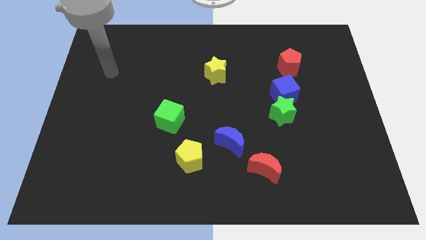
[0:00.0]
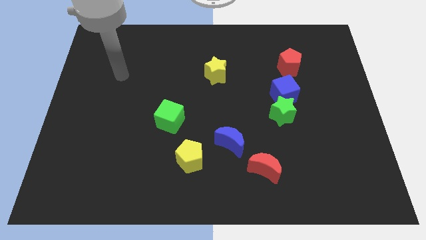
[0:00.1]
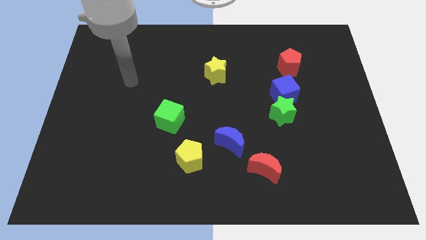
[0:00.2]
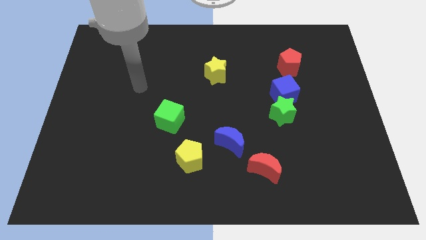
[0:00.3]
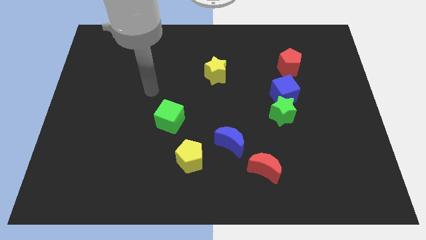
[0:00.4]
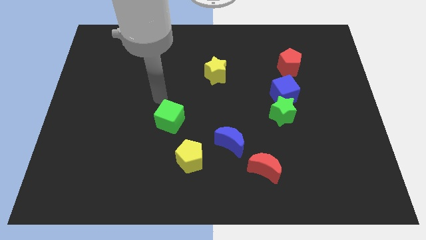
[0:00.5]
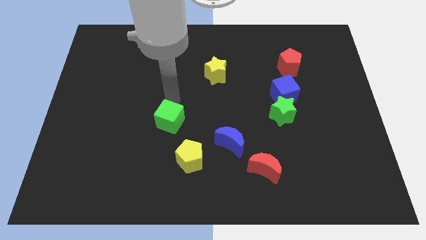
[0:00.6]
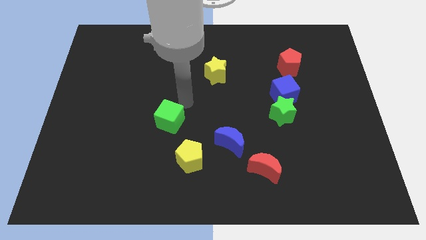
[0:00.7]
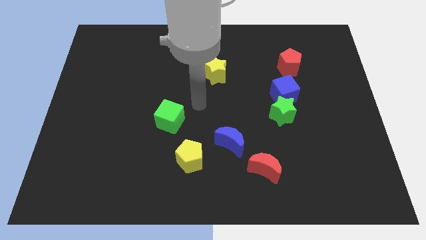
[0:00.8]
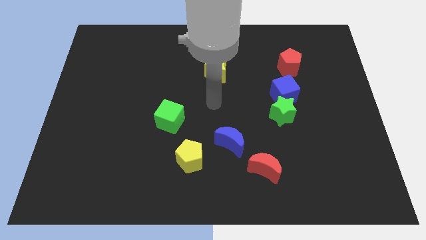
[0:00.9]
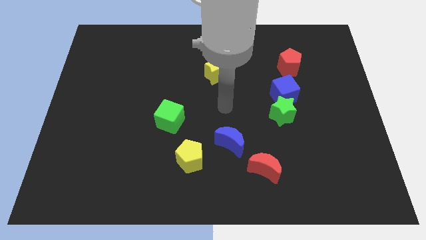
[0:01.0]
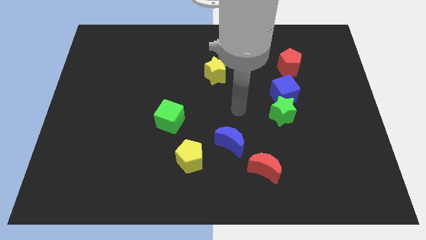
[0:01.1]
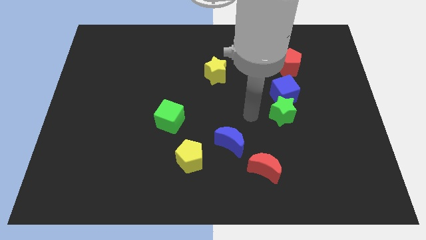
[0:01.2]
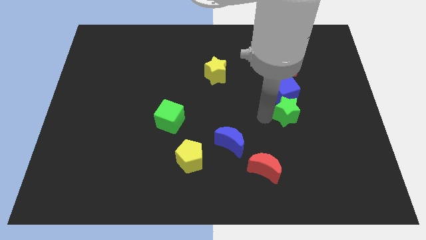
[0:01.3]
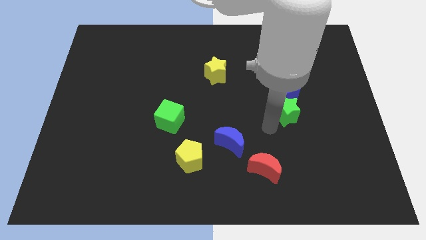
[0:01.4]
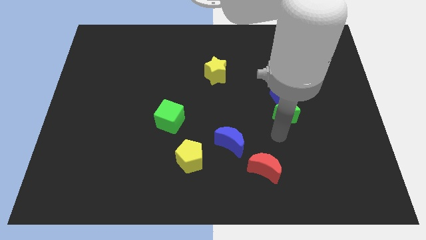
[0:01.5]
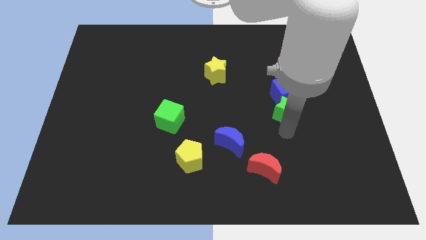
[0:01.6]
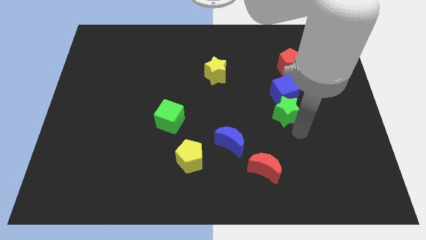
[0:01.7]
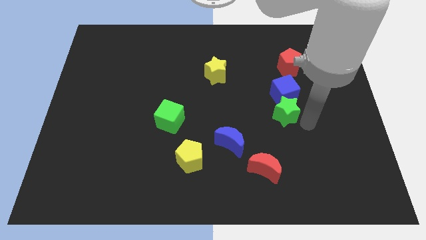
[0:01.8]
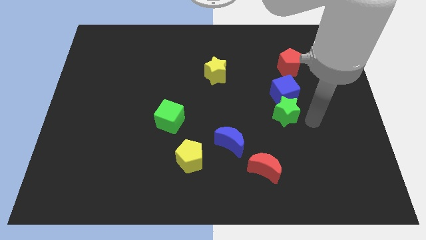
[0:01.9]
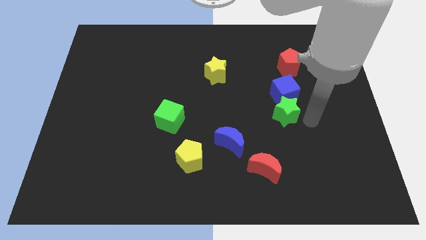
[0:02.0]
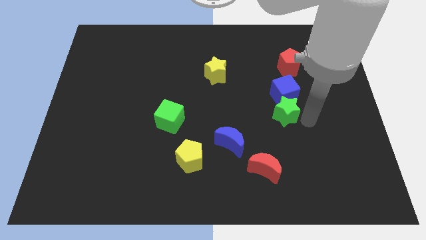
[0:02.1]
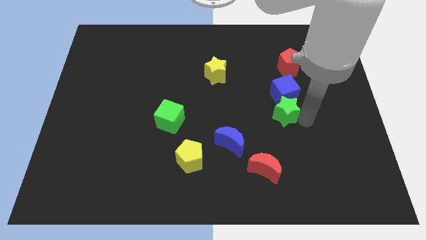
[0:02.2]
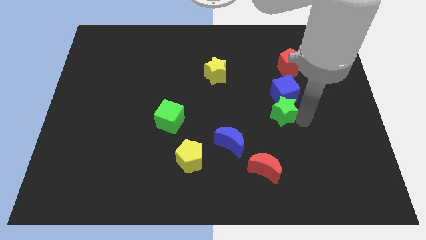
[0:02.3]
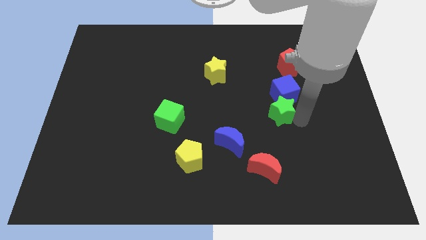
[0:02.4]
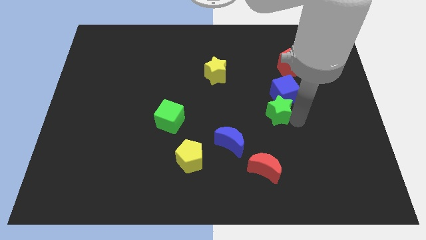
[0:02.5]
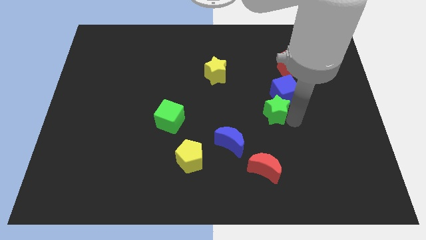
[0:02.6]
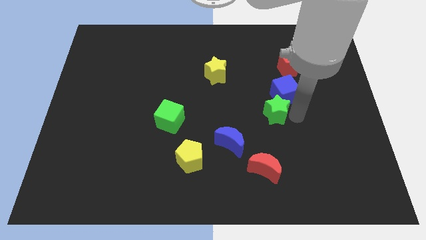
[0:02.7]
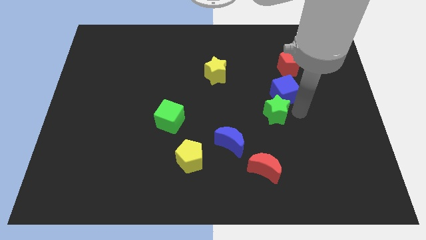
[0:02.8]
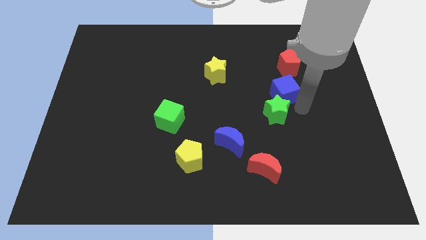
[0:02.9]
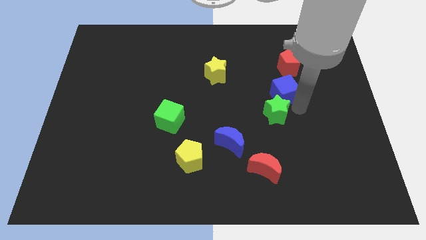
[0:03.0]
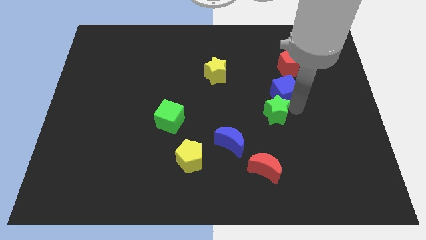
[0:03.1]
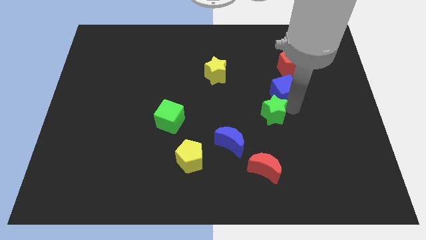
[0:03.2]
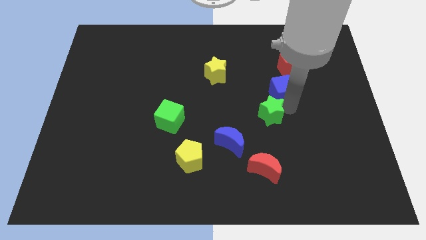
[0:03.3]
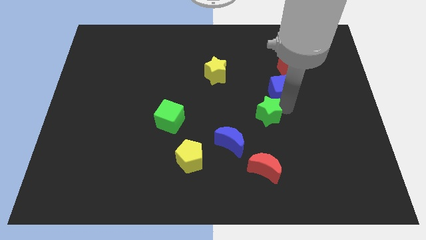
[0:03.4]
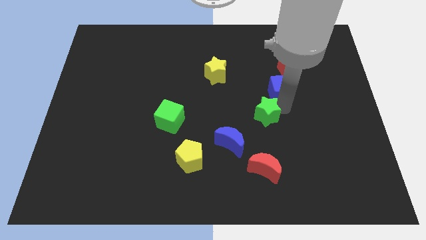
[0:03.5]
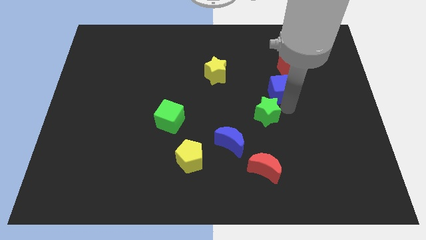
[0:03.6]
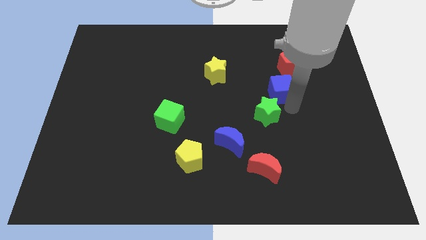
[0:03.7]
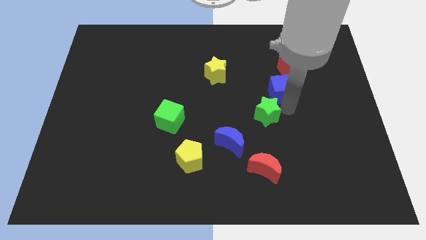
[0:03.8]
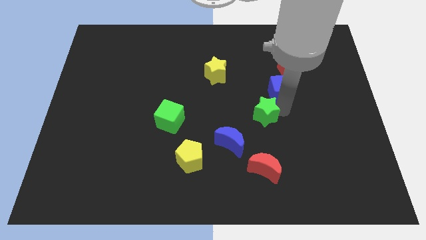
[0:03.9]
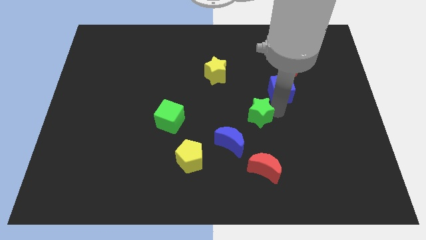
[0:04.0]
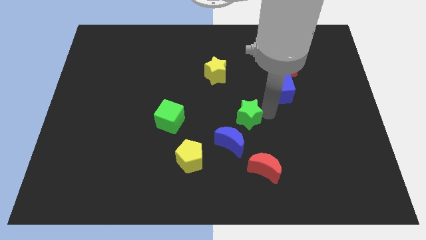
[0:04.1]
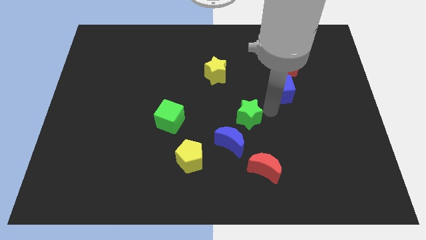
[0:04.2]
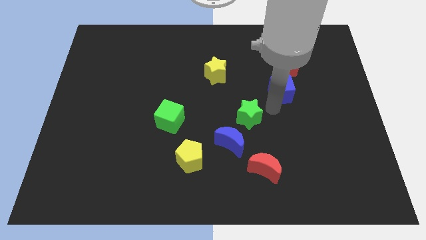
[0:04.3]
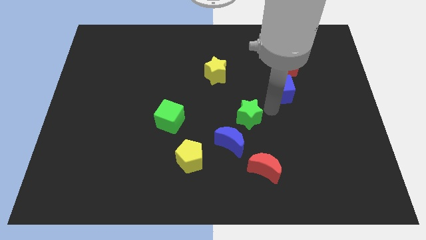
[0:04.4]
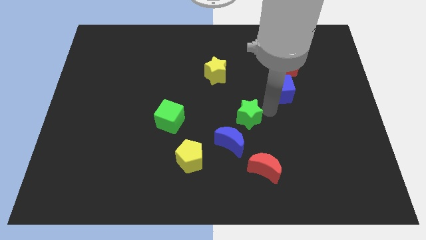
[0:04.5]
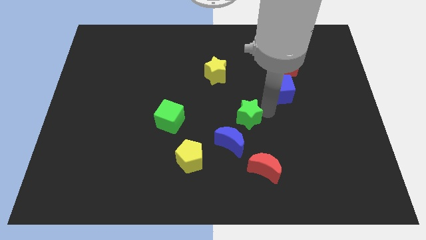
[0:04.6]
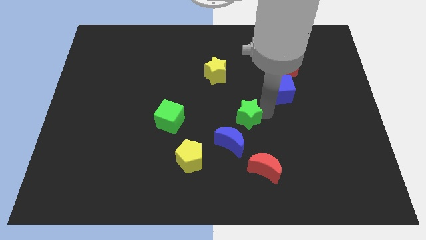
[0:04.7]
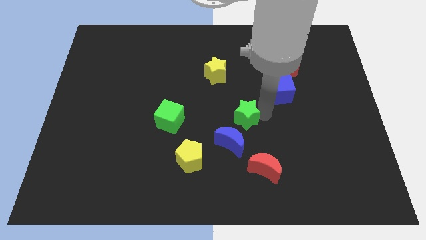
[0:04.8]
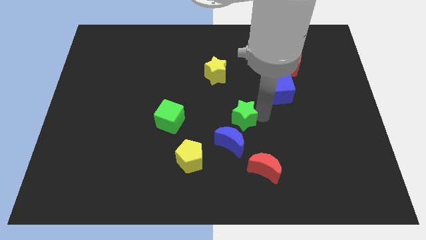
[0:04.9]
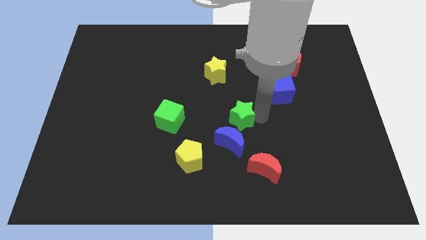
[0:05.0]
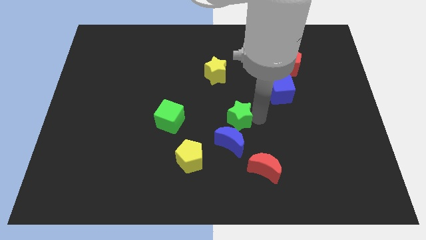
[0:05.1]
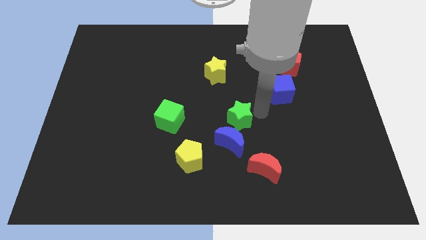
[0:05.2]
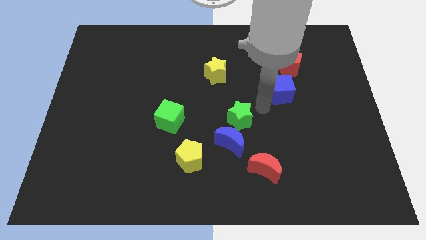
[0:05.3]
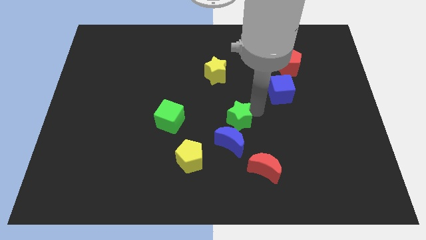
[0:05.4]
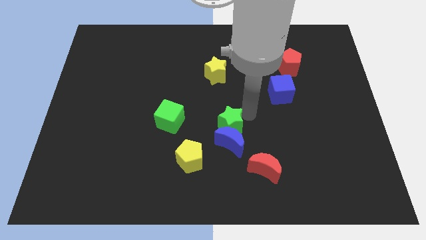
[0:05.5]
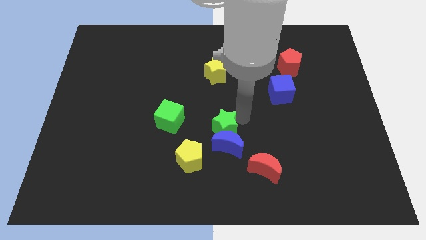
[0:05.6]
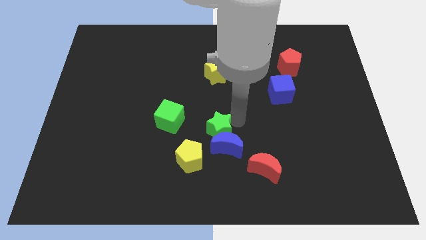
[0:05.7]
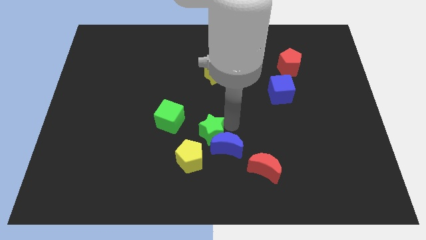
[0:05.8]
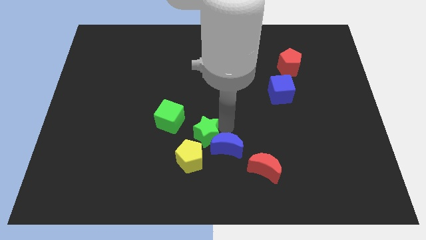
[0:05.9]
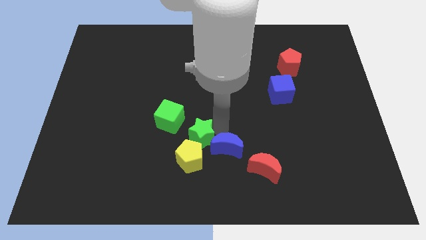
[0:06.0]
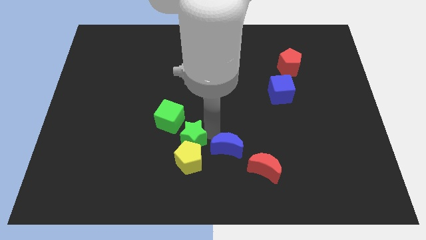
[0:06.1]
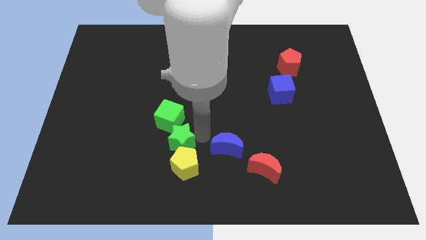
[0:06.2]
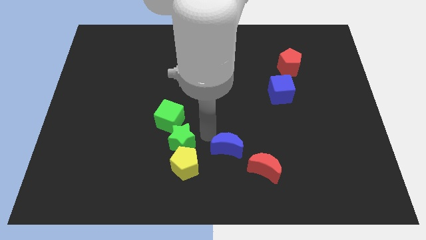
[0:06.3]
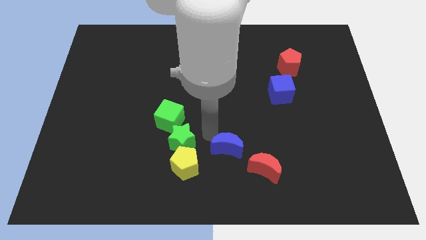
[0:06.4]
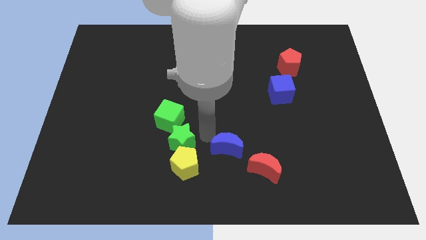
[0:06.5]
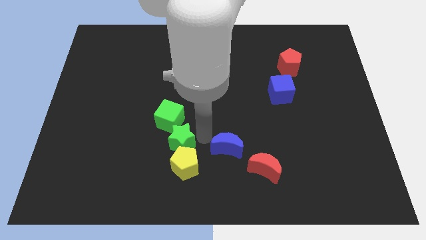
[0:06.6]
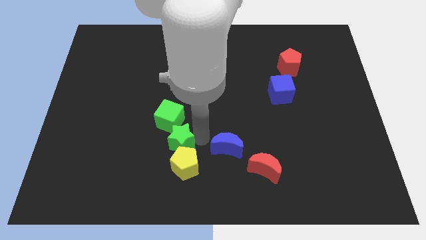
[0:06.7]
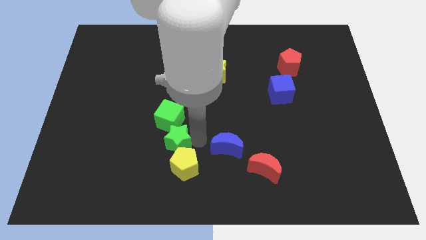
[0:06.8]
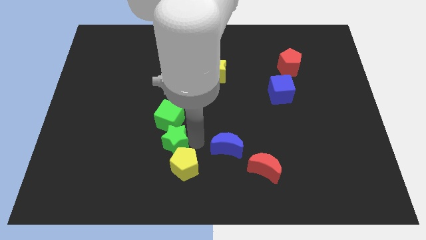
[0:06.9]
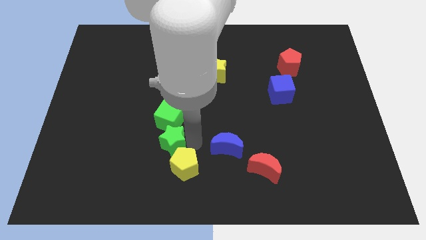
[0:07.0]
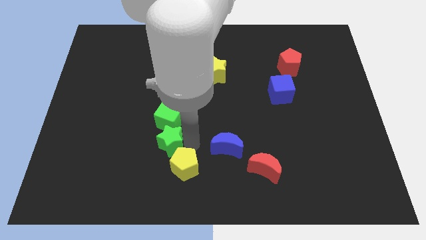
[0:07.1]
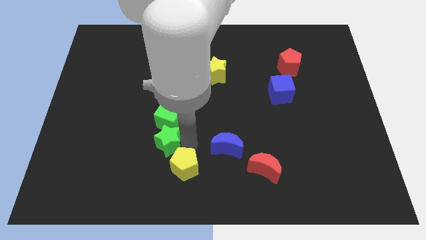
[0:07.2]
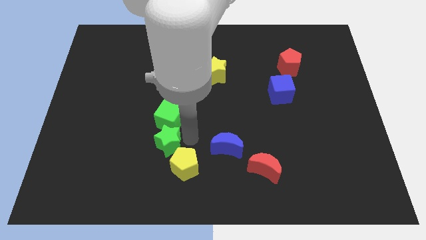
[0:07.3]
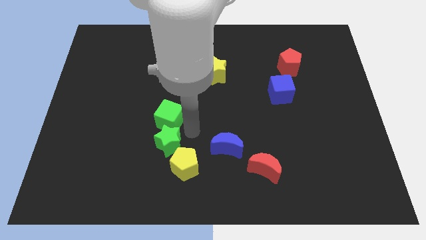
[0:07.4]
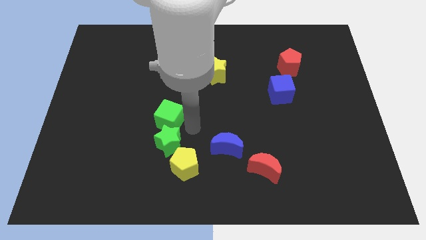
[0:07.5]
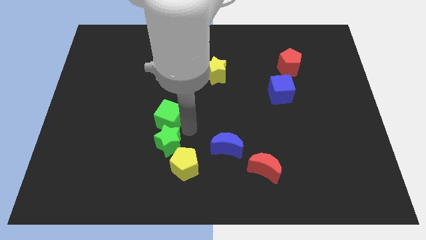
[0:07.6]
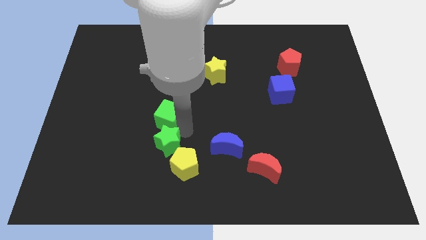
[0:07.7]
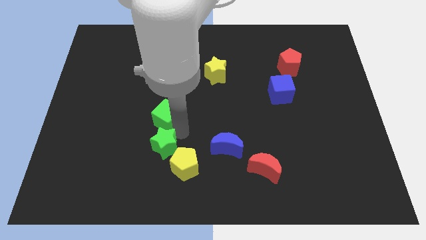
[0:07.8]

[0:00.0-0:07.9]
slide the green star left of the yellow pentagon
